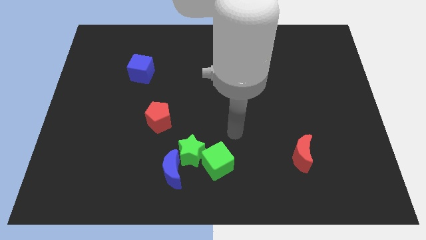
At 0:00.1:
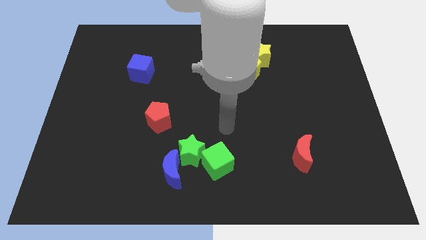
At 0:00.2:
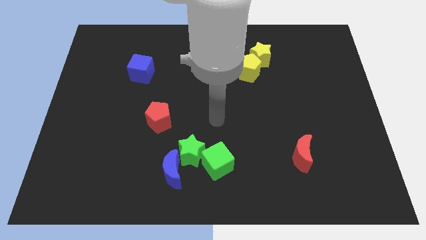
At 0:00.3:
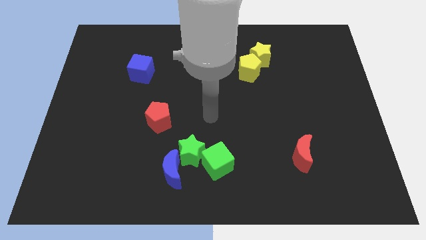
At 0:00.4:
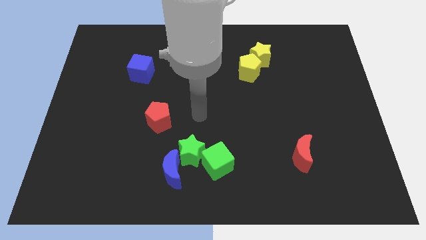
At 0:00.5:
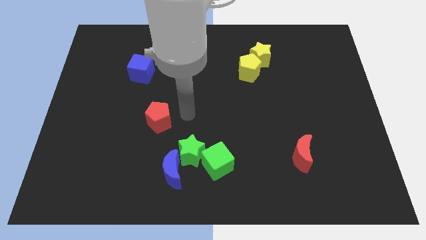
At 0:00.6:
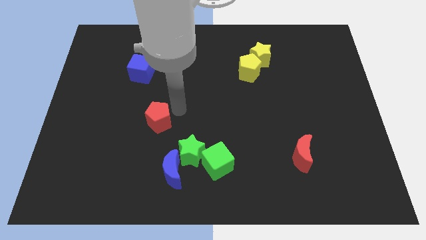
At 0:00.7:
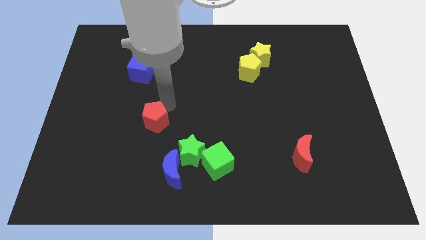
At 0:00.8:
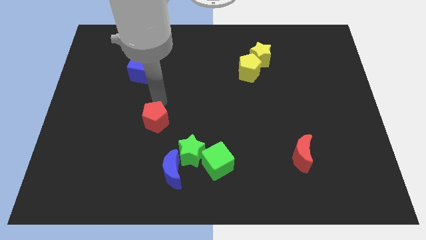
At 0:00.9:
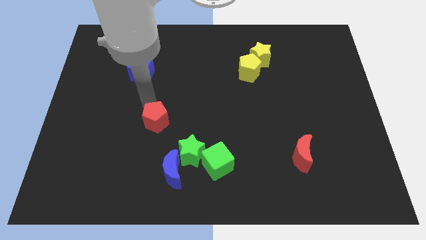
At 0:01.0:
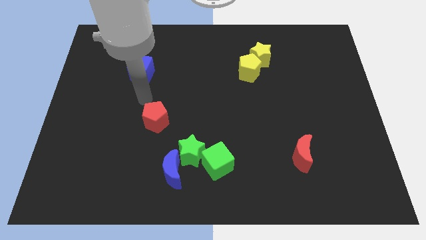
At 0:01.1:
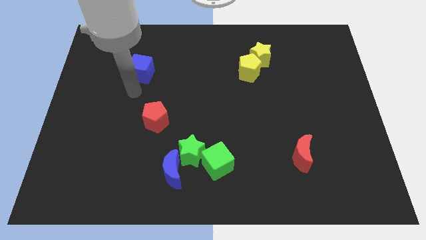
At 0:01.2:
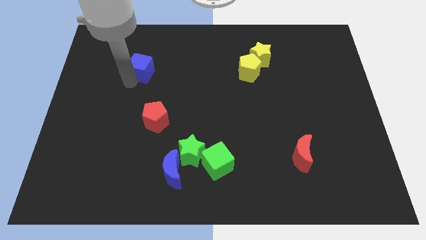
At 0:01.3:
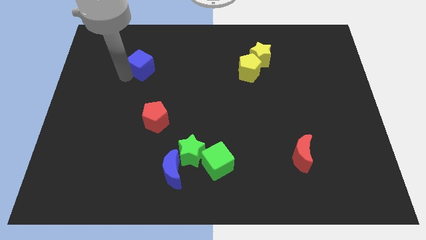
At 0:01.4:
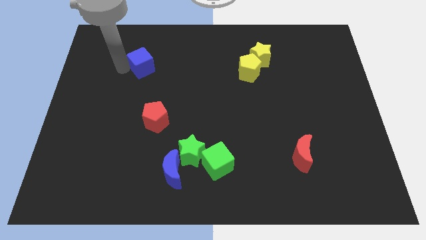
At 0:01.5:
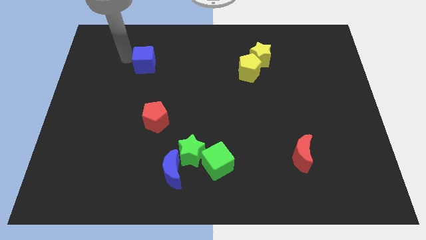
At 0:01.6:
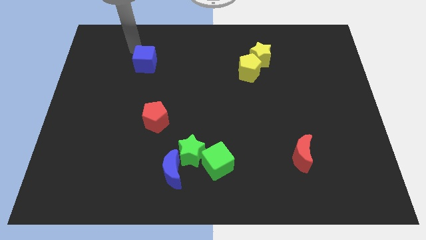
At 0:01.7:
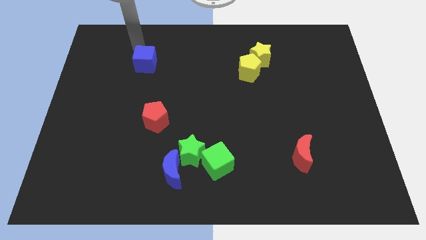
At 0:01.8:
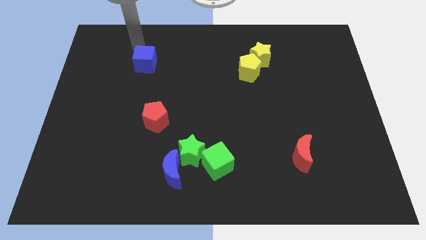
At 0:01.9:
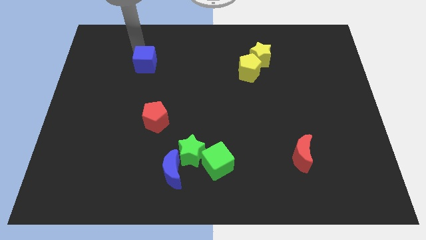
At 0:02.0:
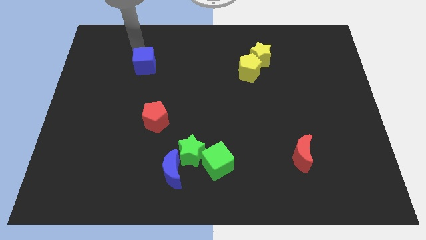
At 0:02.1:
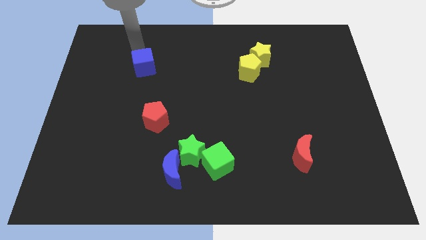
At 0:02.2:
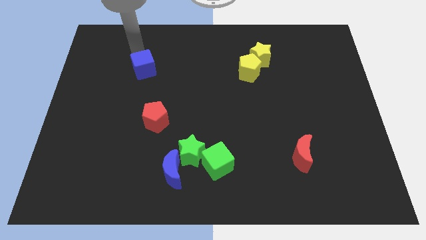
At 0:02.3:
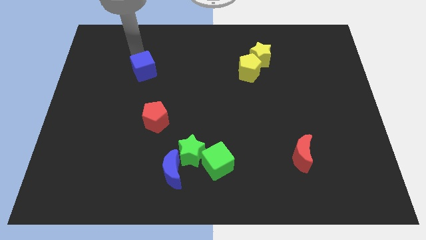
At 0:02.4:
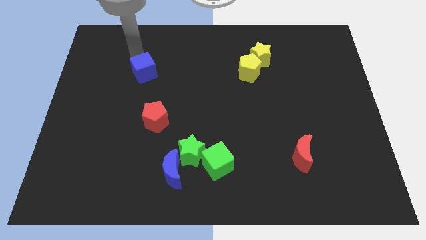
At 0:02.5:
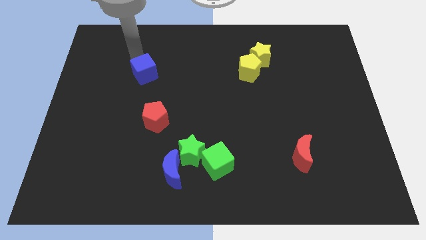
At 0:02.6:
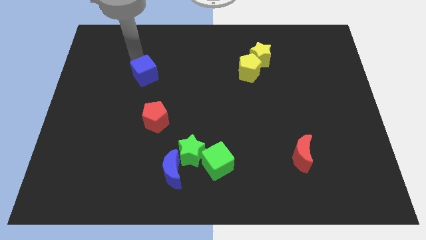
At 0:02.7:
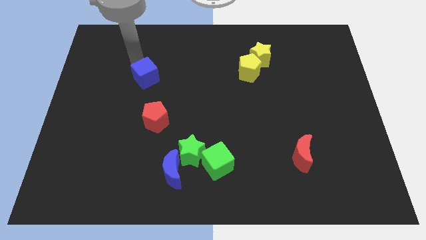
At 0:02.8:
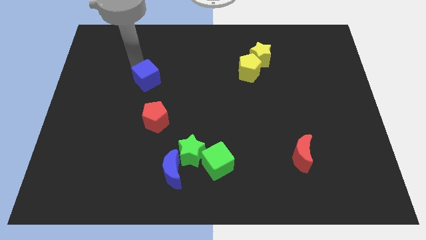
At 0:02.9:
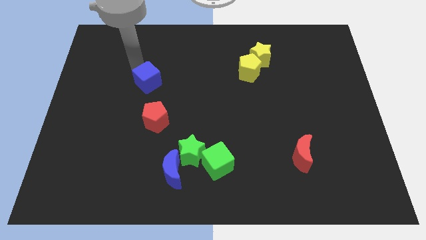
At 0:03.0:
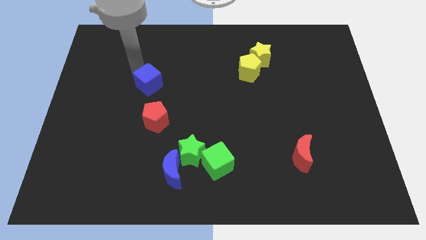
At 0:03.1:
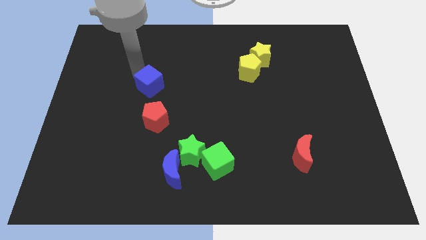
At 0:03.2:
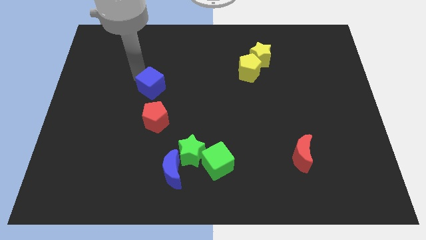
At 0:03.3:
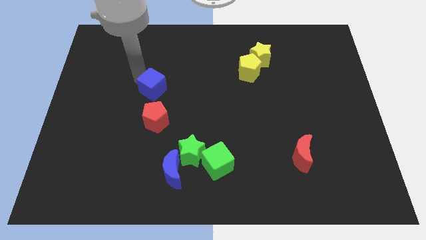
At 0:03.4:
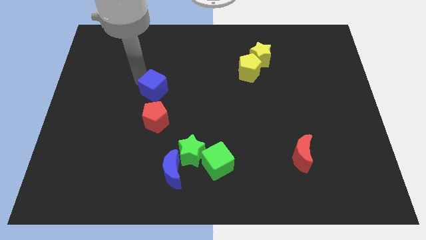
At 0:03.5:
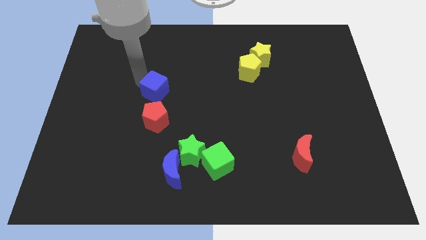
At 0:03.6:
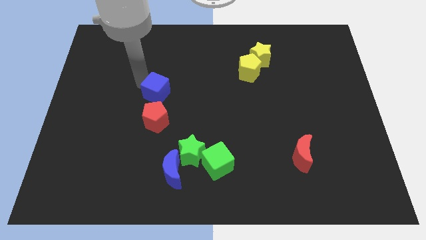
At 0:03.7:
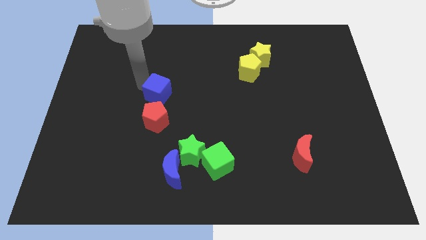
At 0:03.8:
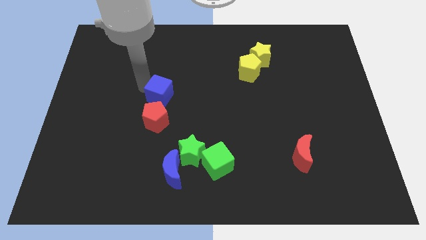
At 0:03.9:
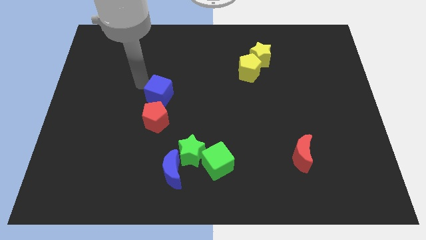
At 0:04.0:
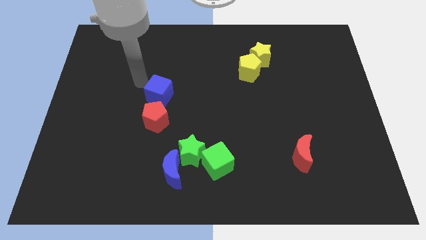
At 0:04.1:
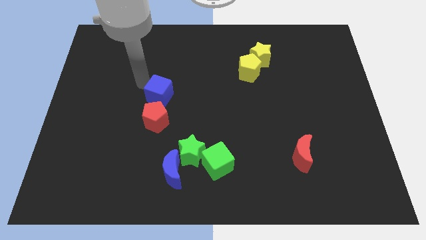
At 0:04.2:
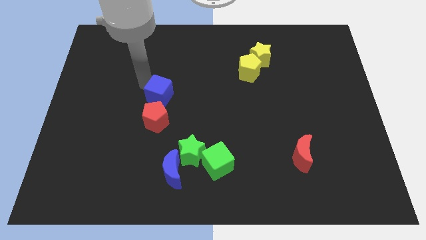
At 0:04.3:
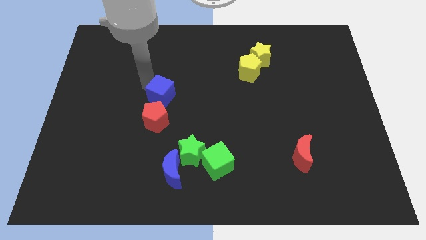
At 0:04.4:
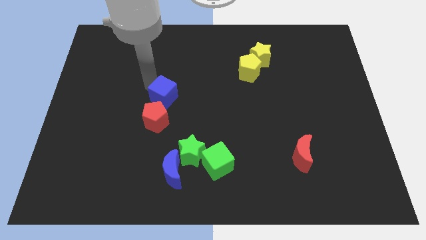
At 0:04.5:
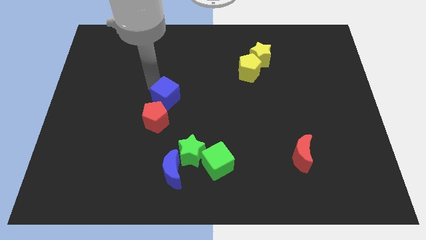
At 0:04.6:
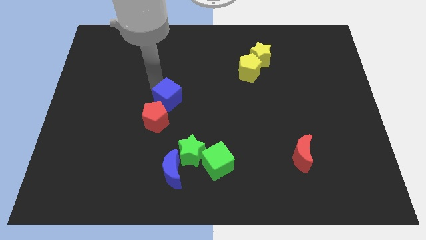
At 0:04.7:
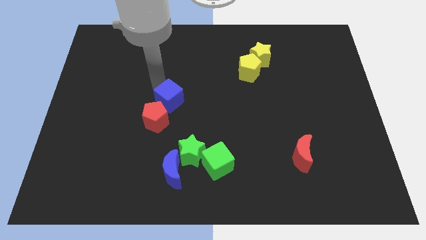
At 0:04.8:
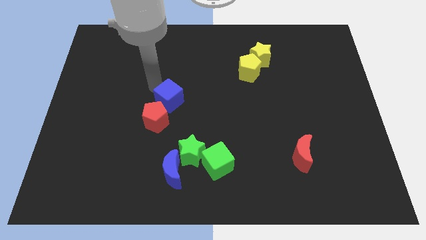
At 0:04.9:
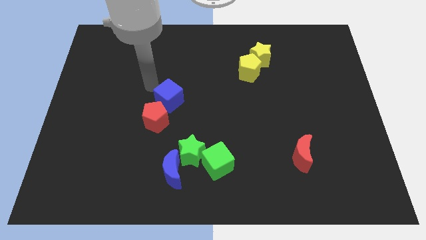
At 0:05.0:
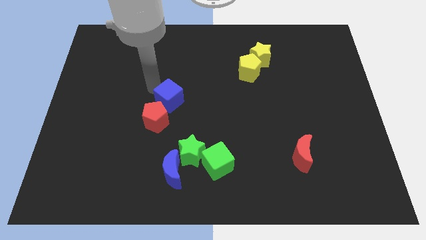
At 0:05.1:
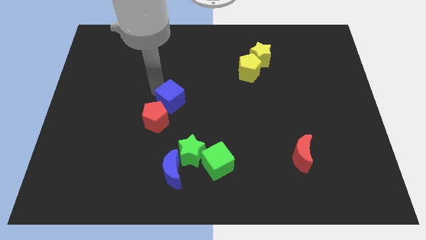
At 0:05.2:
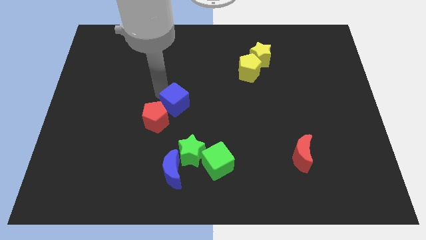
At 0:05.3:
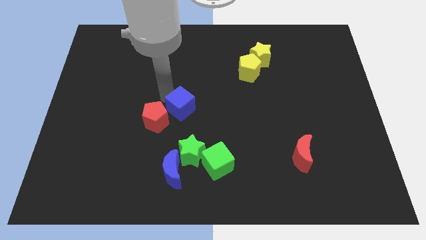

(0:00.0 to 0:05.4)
slide the blue cube to the top side of the green star

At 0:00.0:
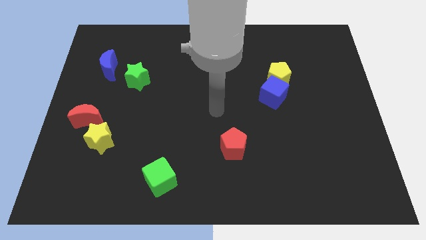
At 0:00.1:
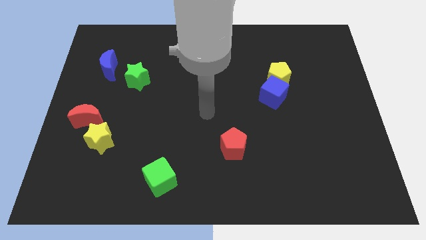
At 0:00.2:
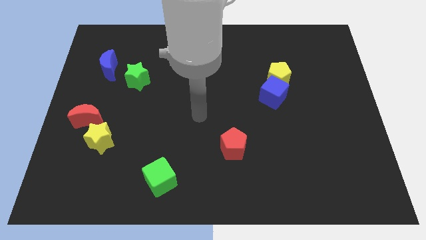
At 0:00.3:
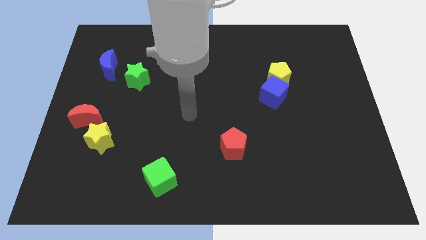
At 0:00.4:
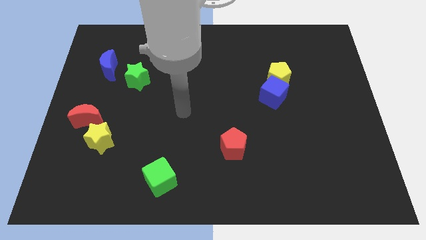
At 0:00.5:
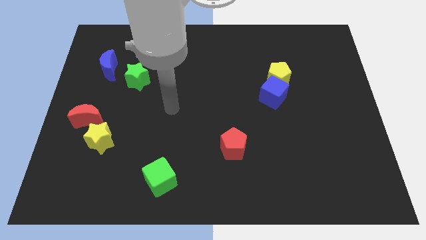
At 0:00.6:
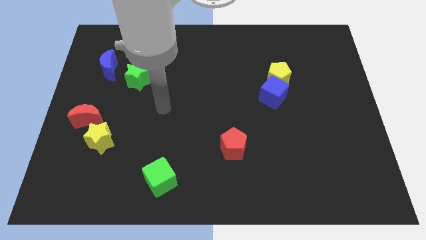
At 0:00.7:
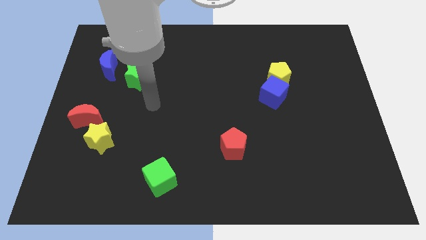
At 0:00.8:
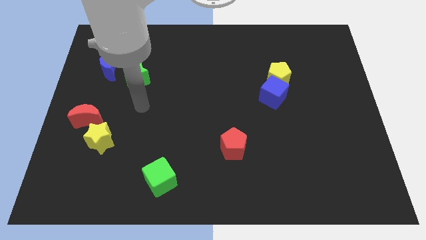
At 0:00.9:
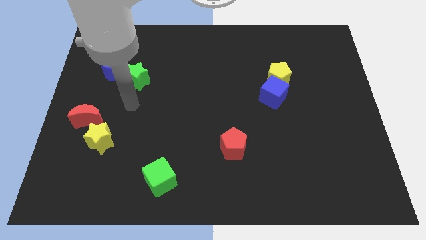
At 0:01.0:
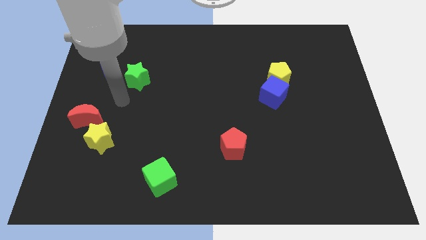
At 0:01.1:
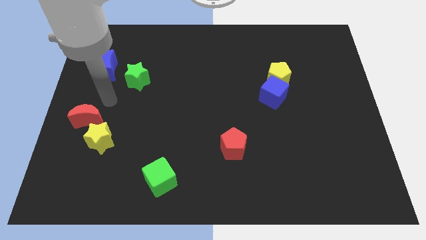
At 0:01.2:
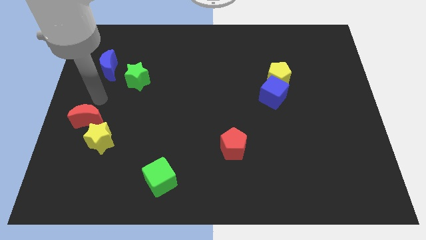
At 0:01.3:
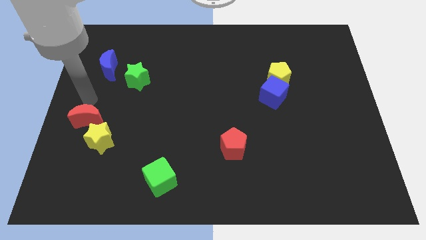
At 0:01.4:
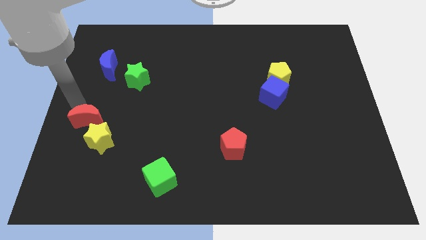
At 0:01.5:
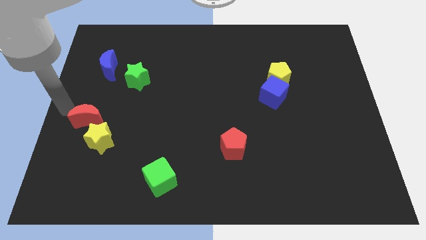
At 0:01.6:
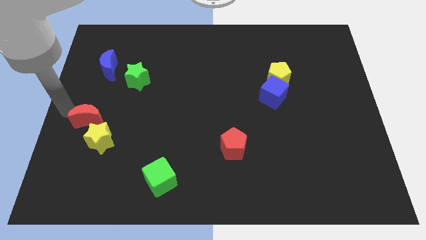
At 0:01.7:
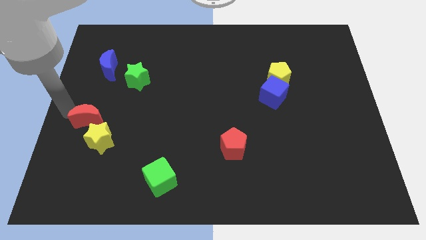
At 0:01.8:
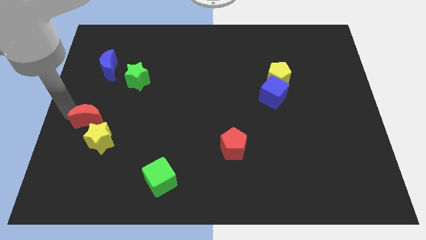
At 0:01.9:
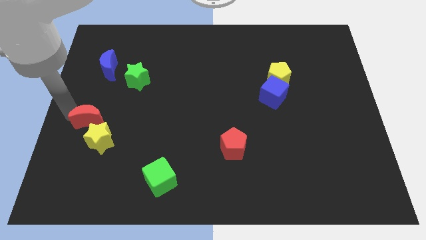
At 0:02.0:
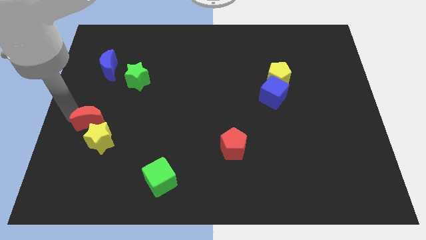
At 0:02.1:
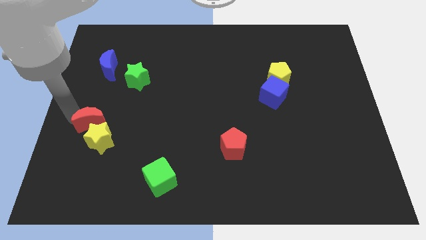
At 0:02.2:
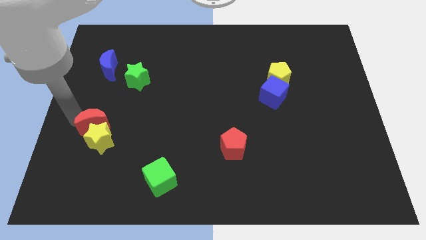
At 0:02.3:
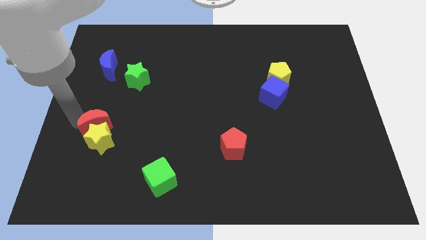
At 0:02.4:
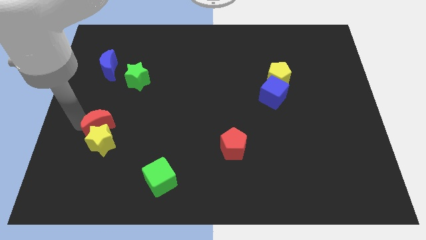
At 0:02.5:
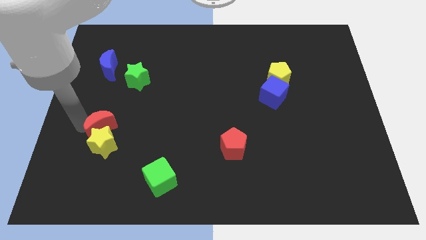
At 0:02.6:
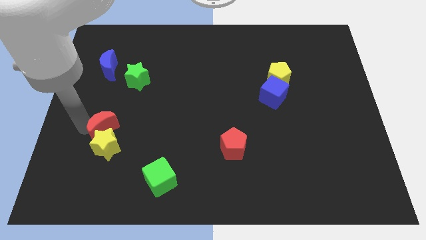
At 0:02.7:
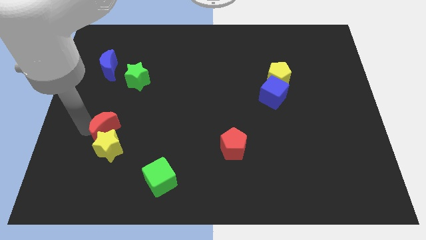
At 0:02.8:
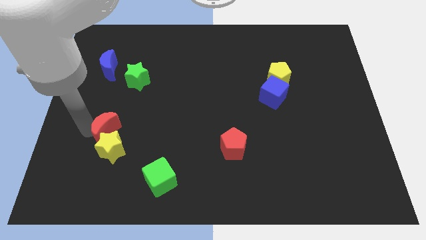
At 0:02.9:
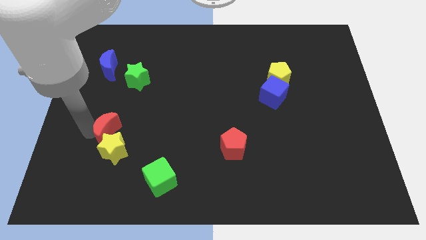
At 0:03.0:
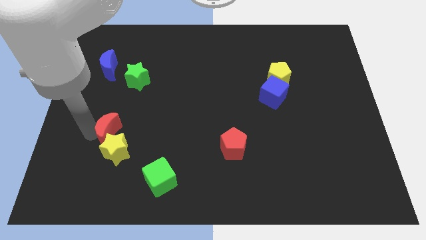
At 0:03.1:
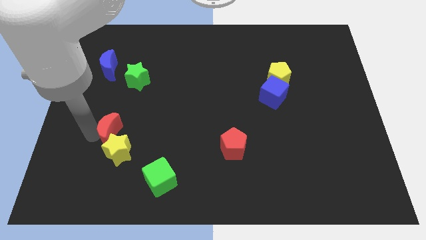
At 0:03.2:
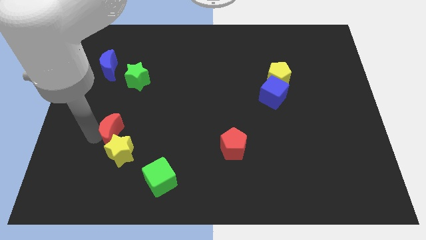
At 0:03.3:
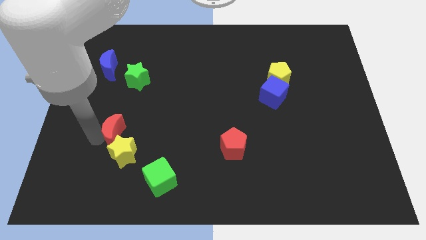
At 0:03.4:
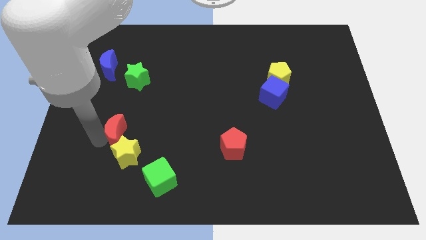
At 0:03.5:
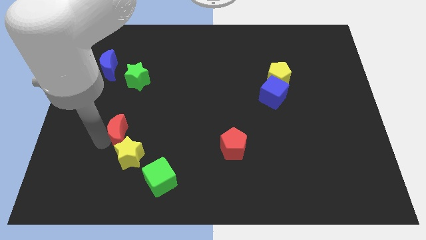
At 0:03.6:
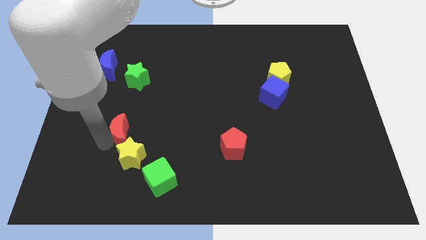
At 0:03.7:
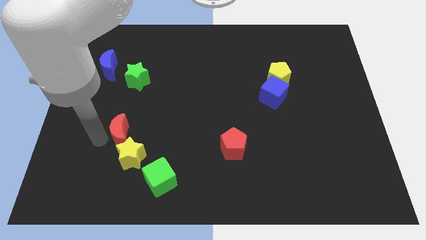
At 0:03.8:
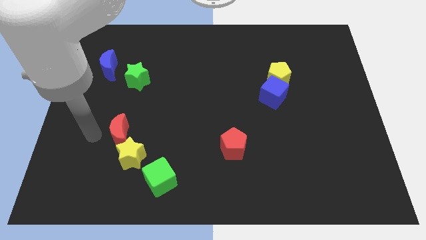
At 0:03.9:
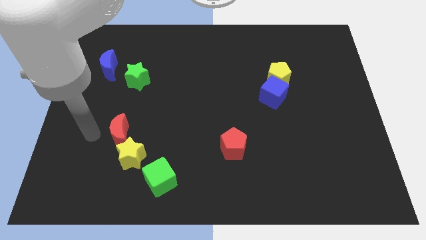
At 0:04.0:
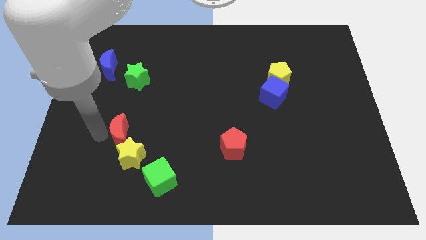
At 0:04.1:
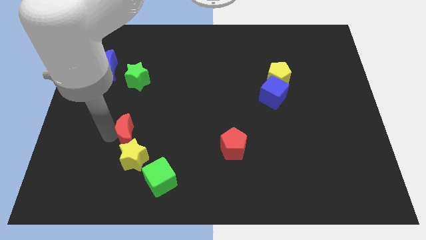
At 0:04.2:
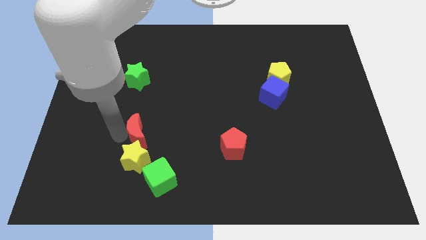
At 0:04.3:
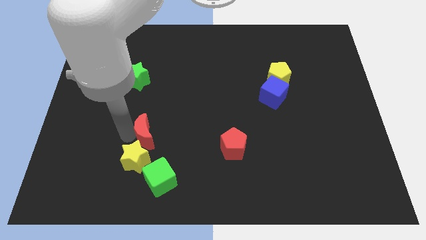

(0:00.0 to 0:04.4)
put the red moon to the top side of the green cube
